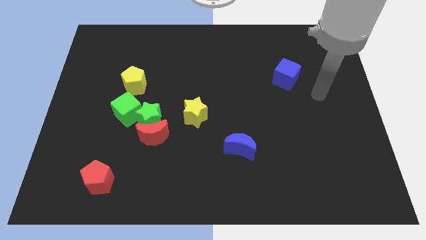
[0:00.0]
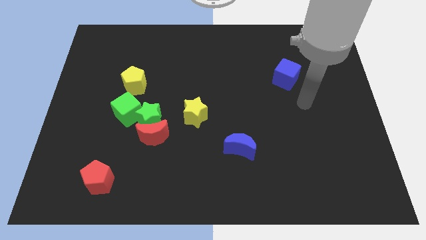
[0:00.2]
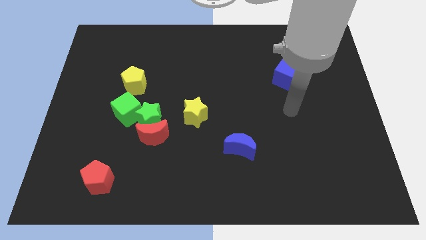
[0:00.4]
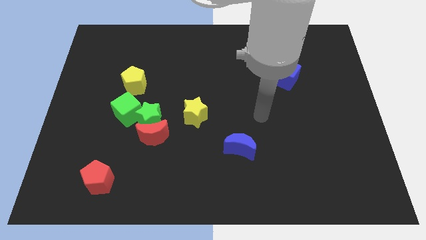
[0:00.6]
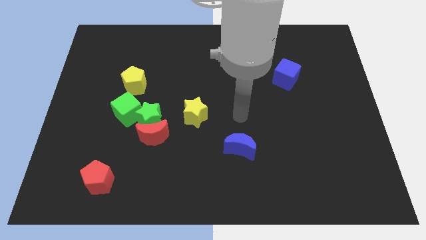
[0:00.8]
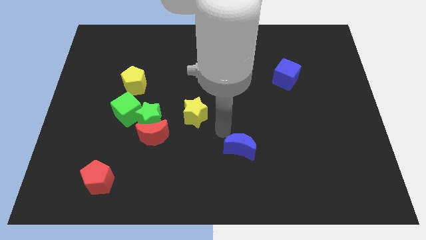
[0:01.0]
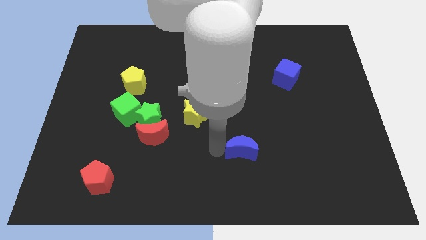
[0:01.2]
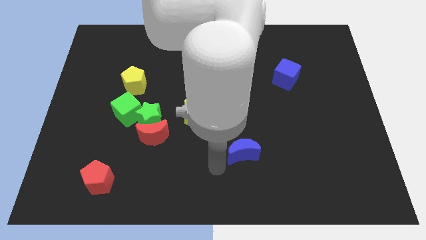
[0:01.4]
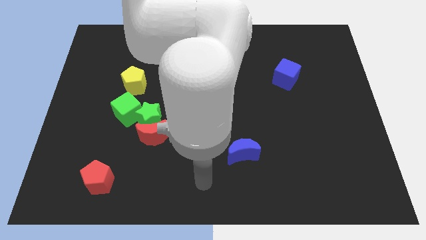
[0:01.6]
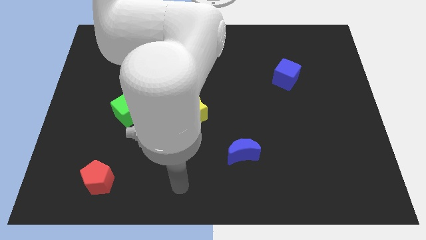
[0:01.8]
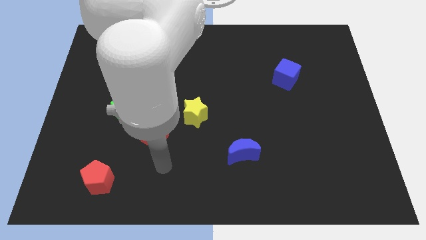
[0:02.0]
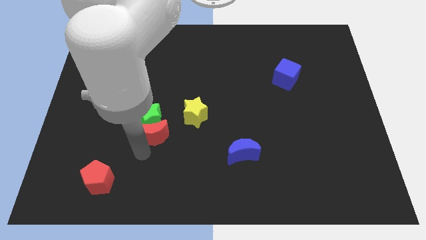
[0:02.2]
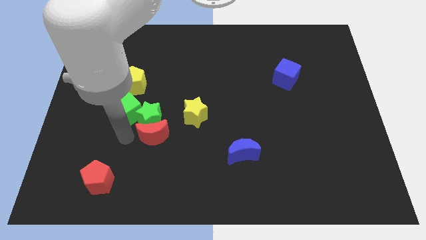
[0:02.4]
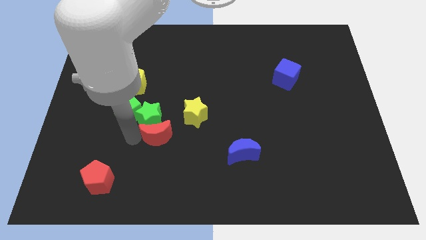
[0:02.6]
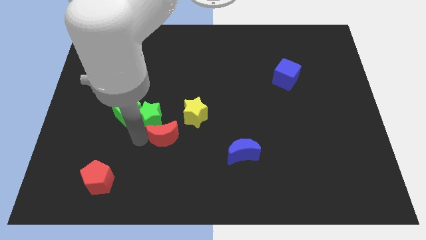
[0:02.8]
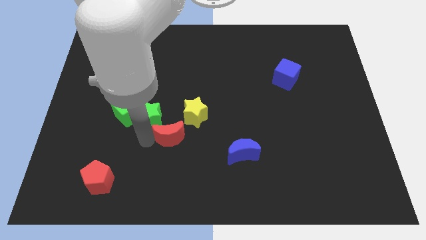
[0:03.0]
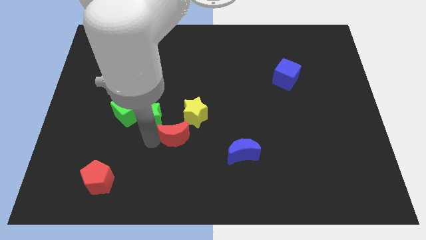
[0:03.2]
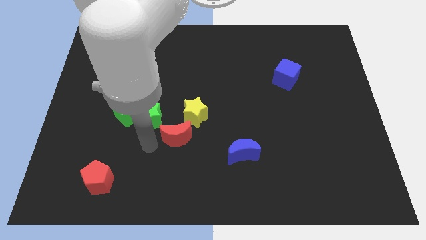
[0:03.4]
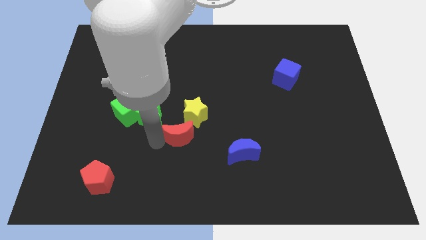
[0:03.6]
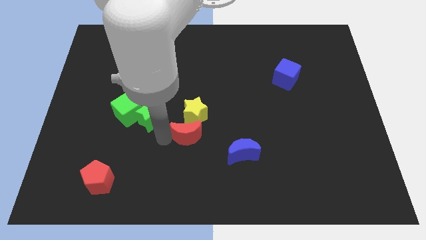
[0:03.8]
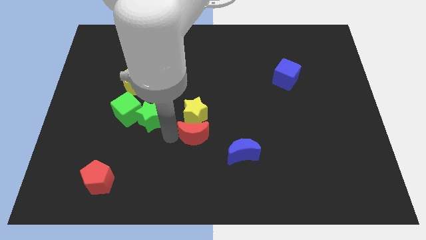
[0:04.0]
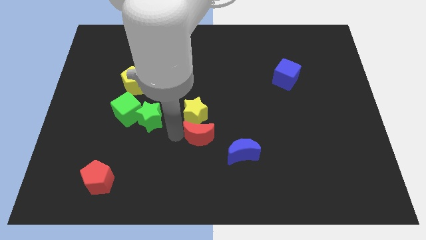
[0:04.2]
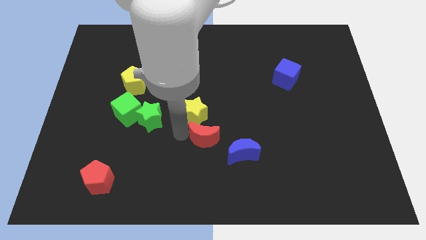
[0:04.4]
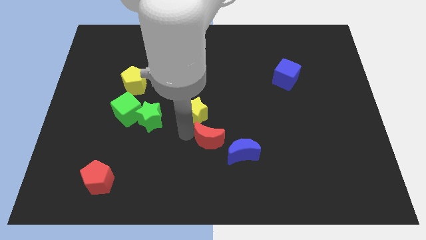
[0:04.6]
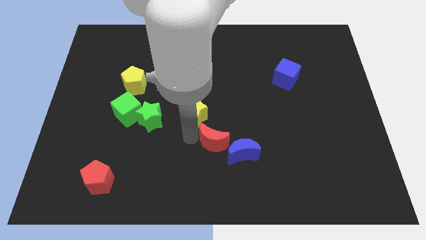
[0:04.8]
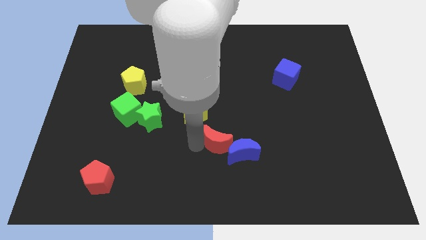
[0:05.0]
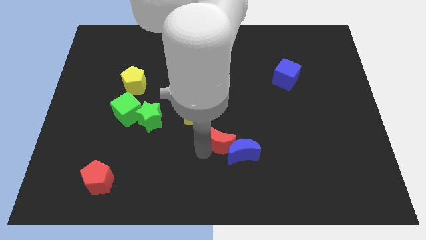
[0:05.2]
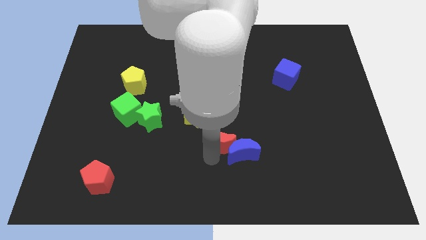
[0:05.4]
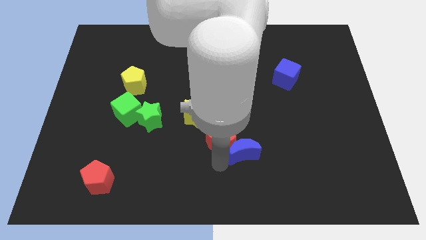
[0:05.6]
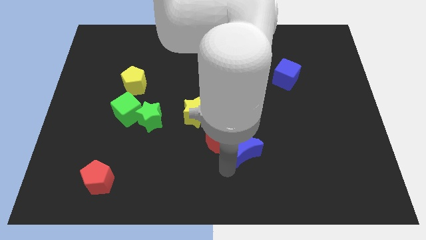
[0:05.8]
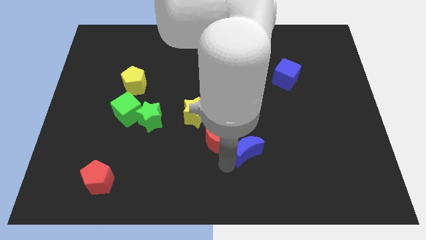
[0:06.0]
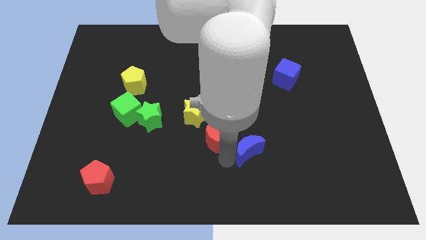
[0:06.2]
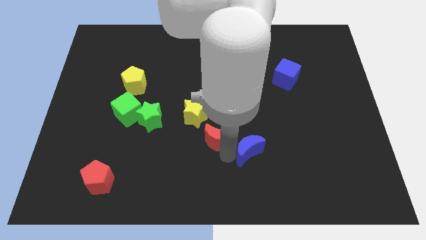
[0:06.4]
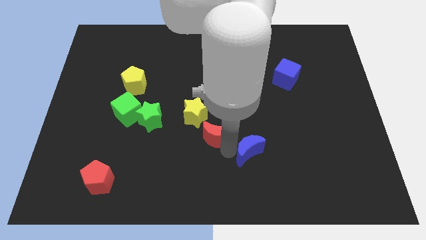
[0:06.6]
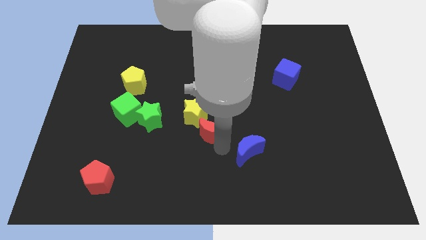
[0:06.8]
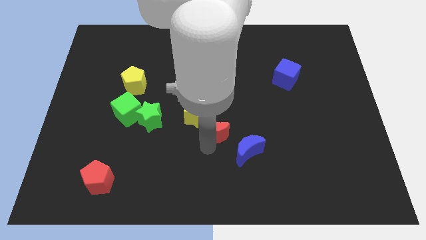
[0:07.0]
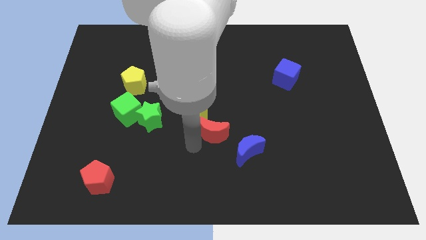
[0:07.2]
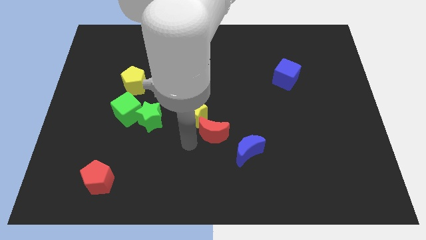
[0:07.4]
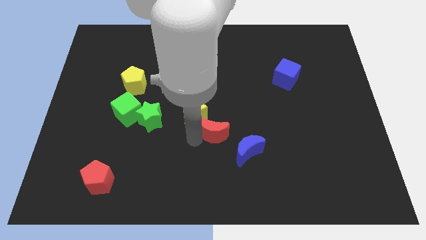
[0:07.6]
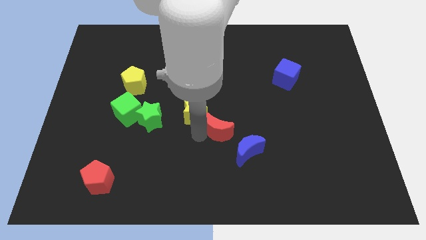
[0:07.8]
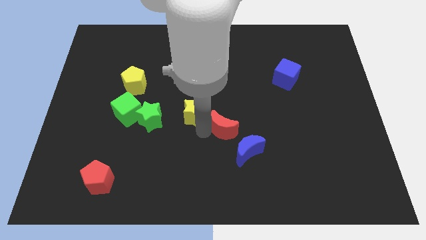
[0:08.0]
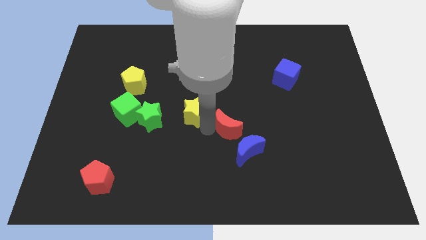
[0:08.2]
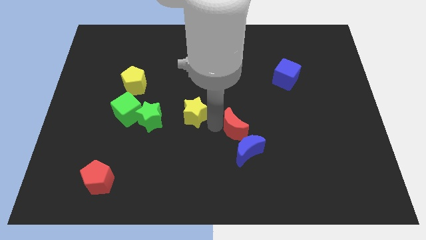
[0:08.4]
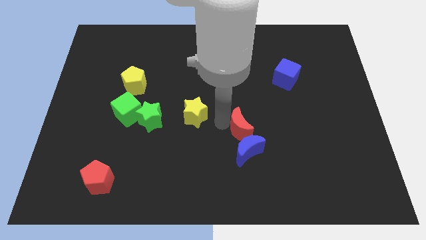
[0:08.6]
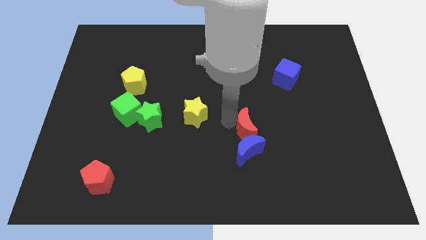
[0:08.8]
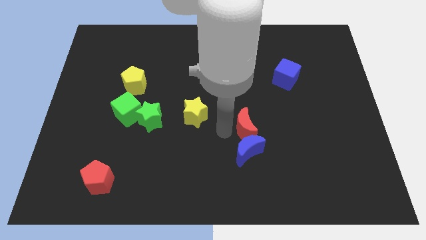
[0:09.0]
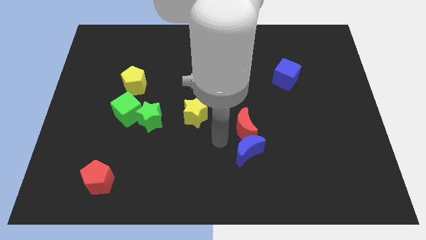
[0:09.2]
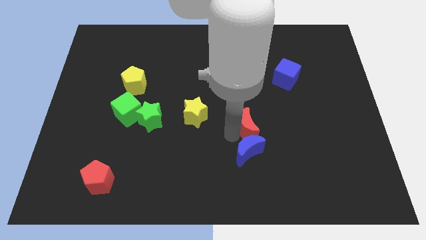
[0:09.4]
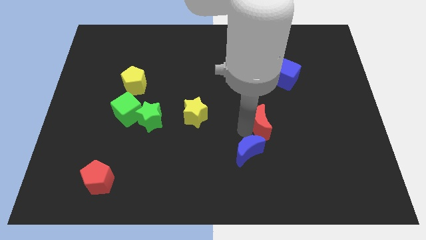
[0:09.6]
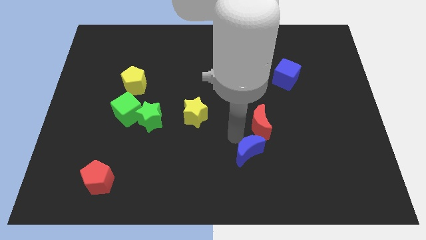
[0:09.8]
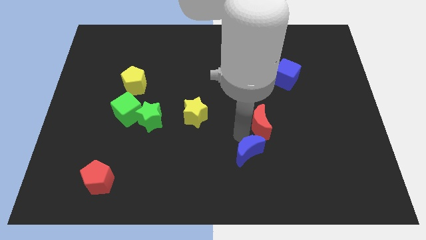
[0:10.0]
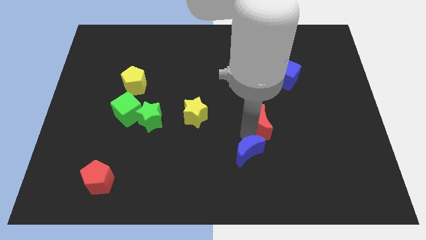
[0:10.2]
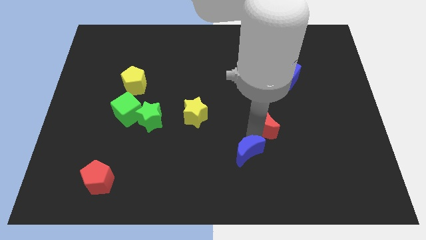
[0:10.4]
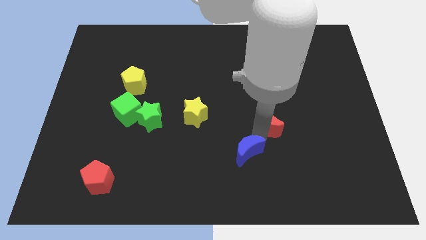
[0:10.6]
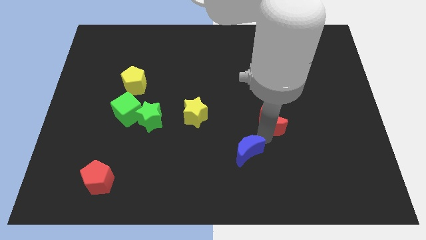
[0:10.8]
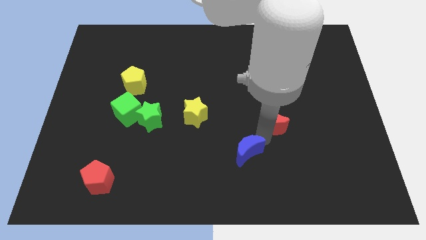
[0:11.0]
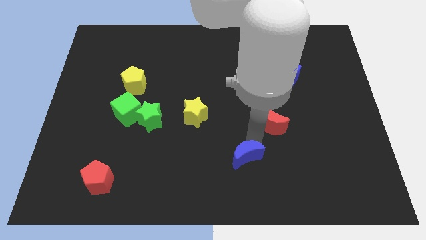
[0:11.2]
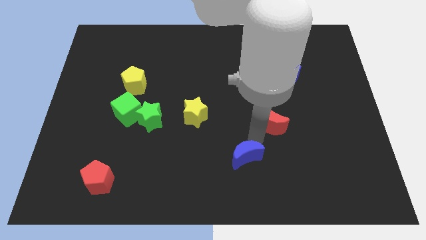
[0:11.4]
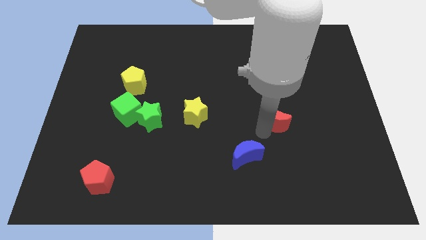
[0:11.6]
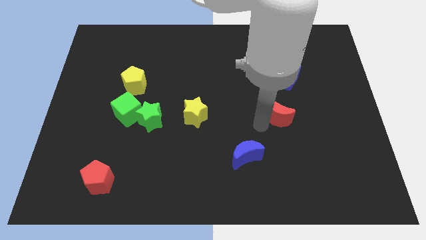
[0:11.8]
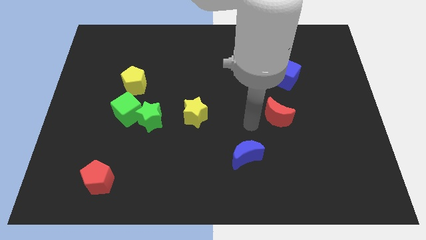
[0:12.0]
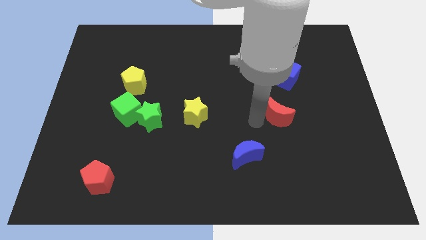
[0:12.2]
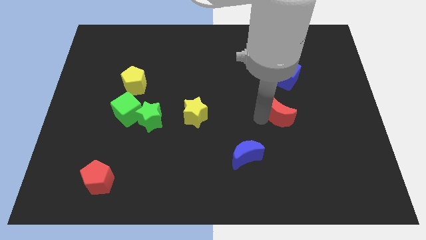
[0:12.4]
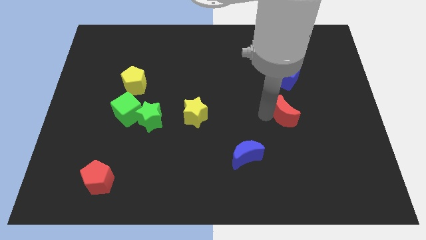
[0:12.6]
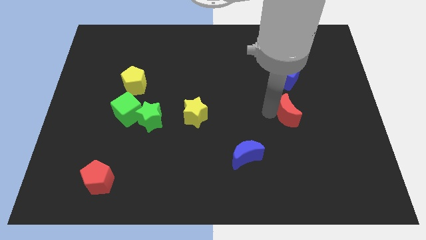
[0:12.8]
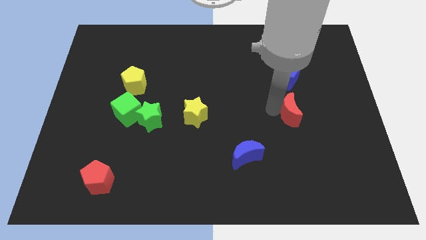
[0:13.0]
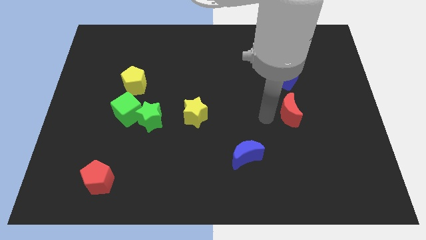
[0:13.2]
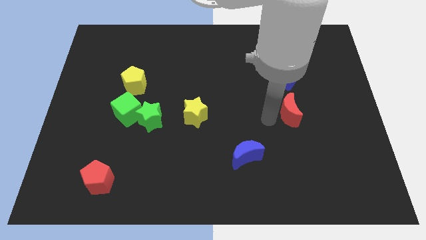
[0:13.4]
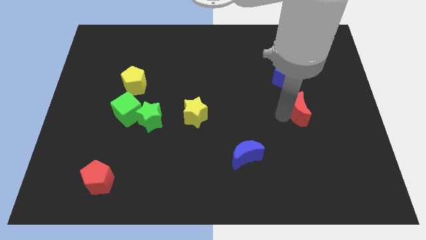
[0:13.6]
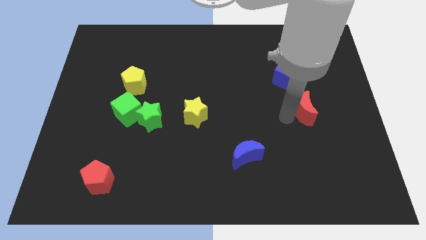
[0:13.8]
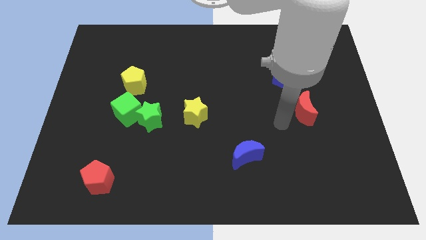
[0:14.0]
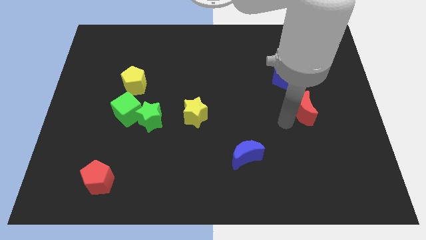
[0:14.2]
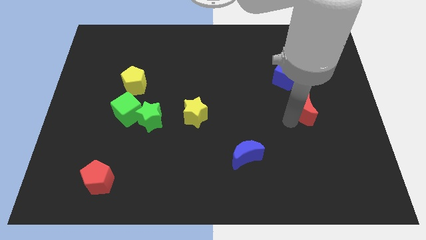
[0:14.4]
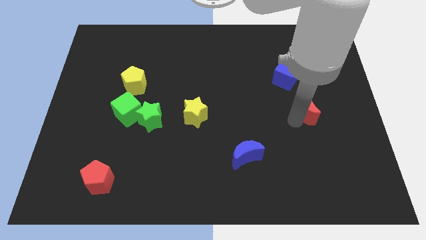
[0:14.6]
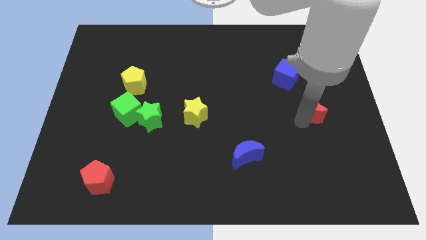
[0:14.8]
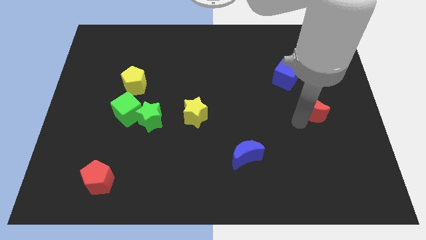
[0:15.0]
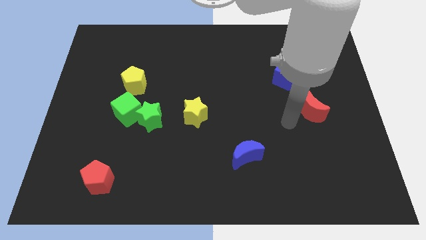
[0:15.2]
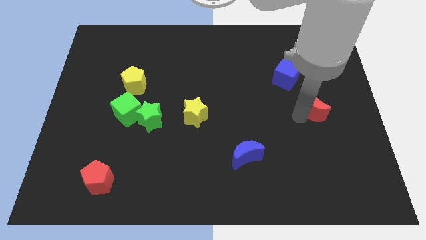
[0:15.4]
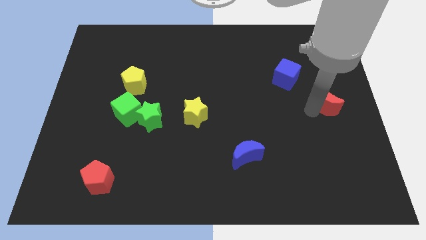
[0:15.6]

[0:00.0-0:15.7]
slide the red moon to the center right
